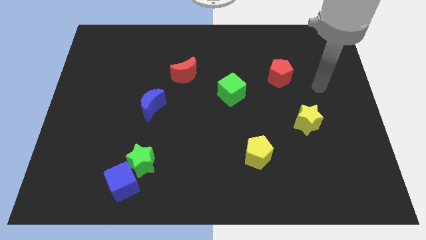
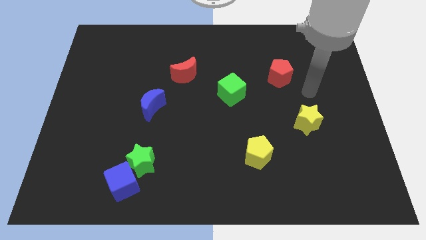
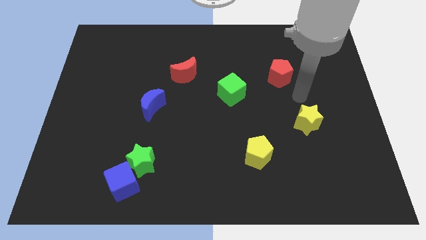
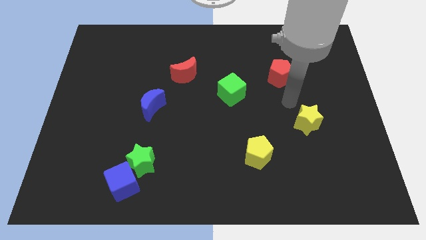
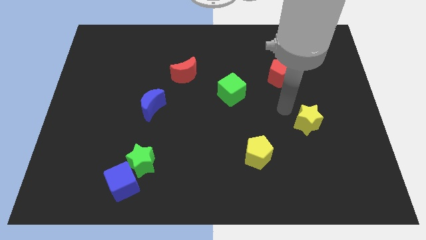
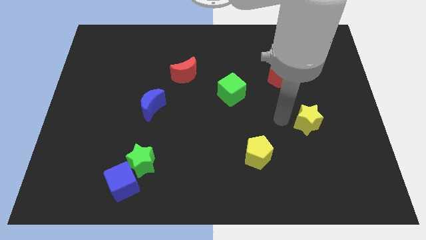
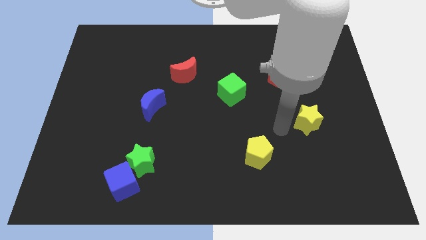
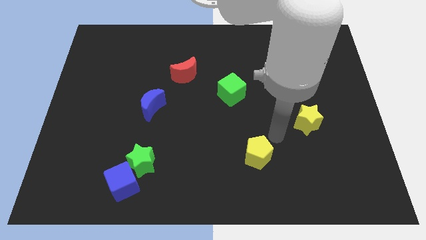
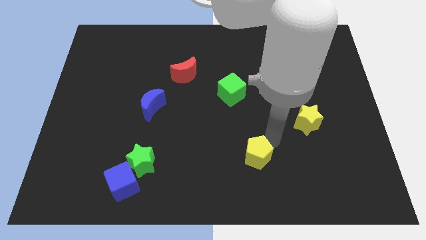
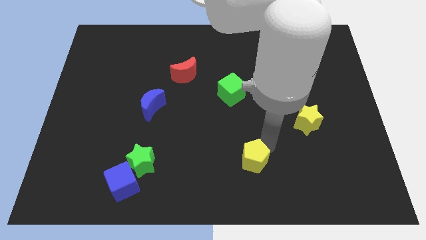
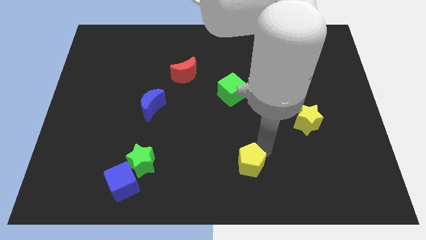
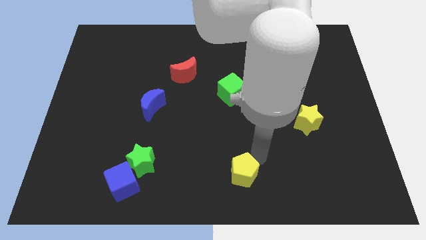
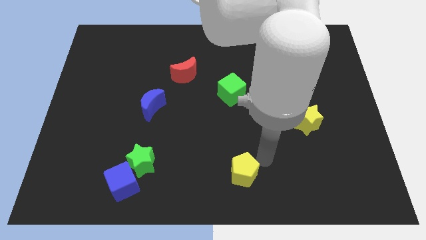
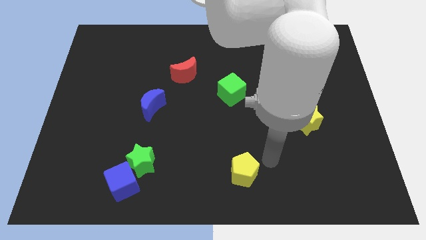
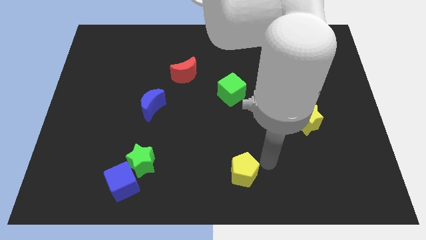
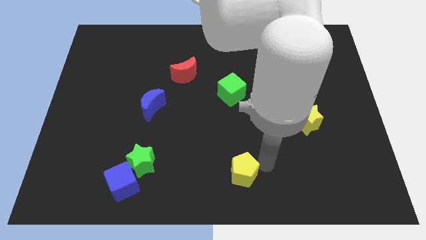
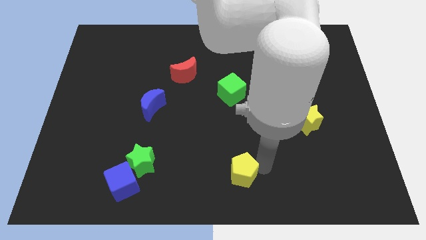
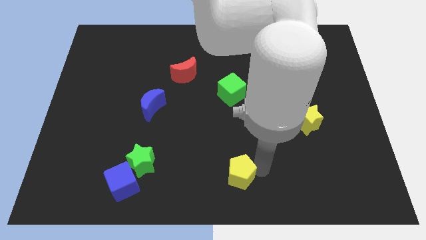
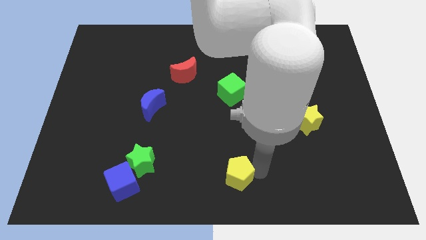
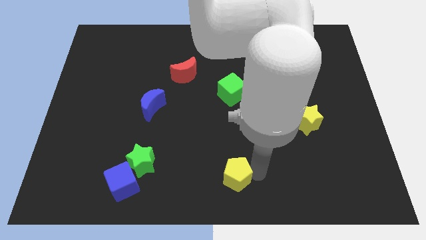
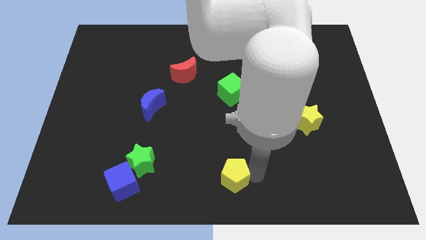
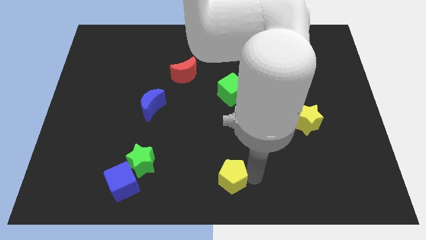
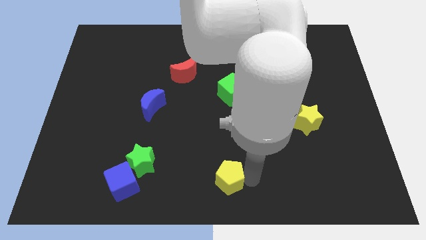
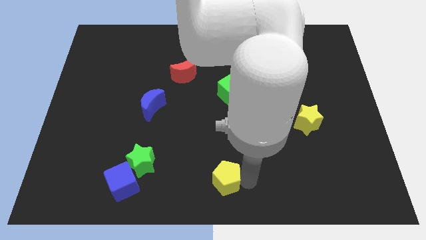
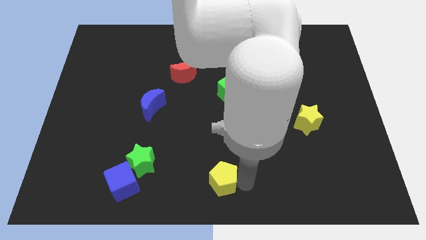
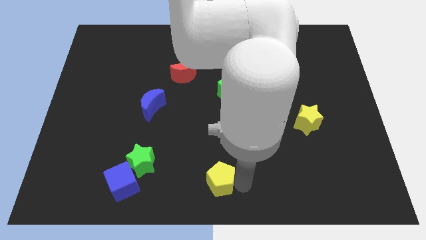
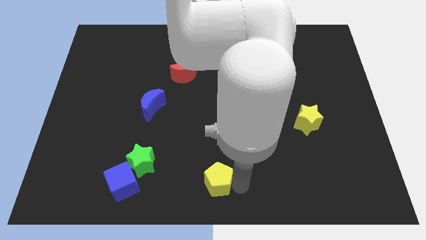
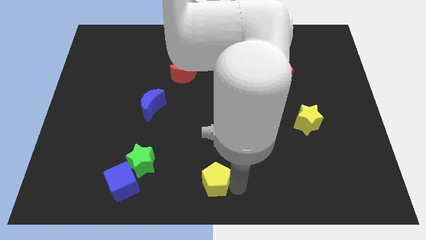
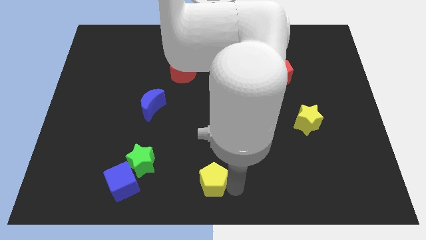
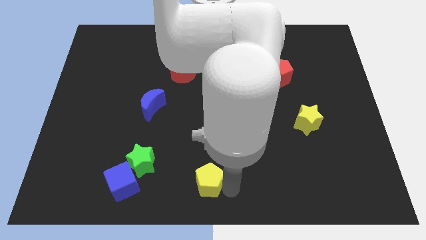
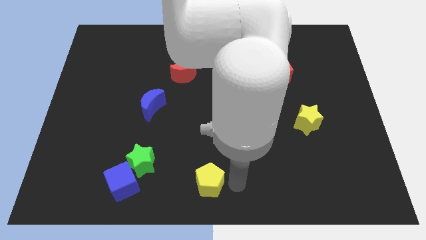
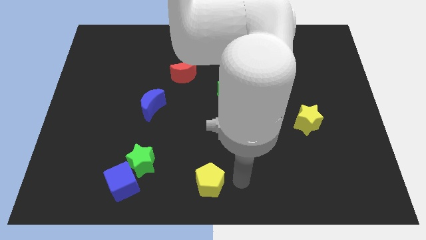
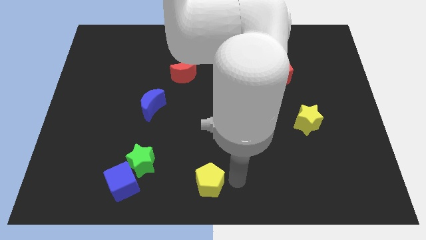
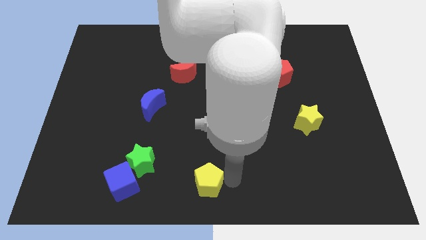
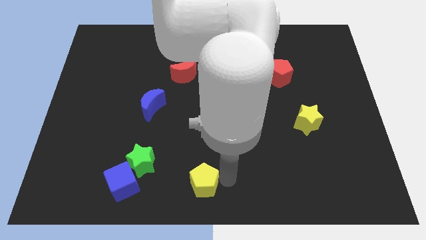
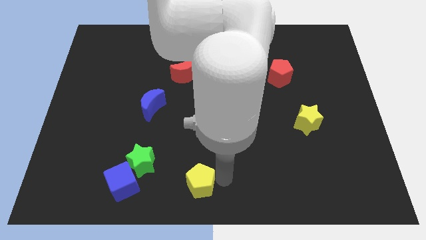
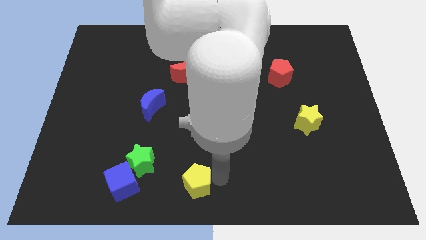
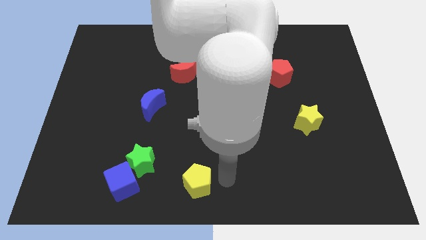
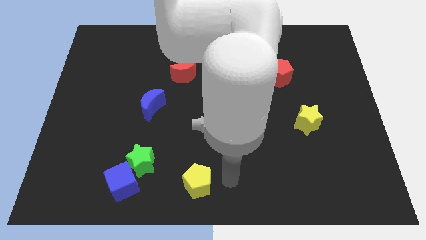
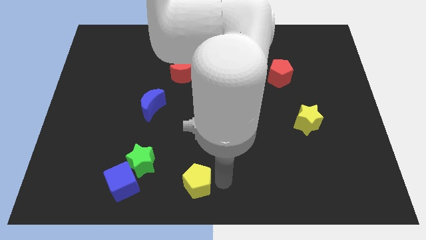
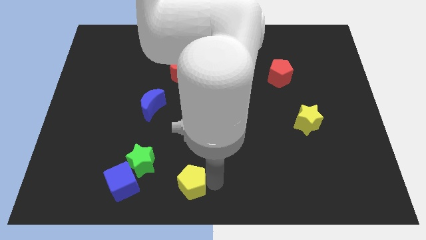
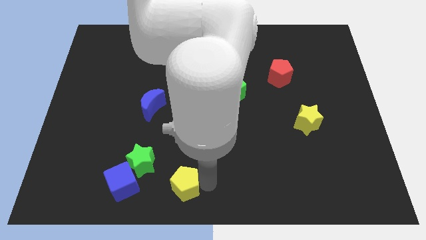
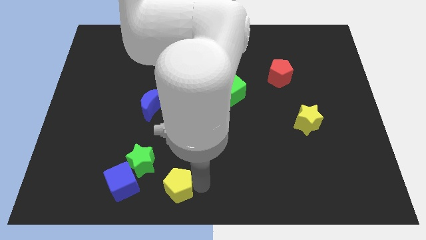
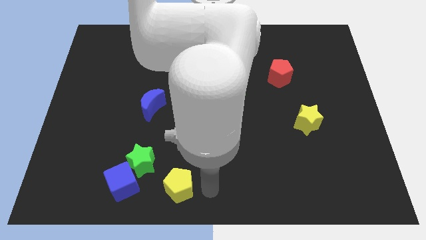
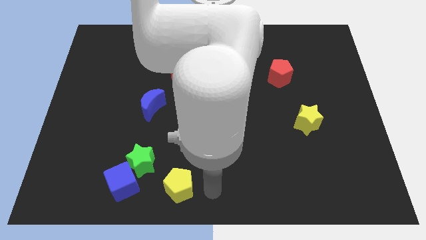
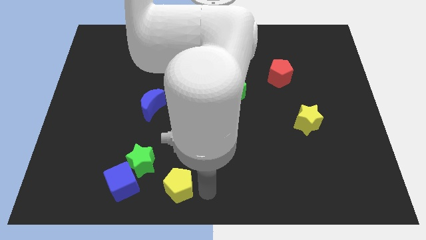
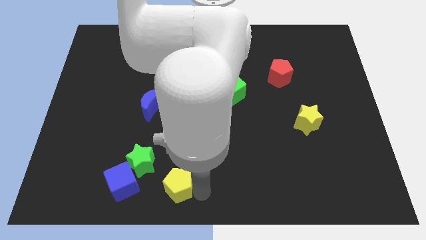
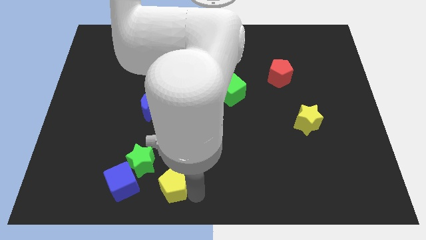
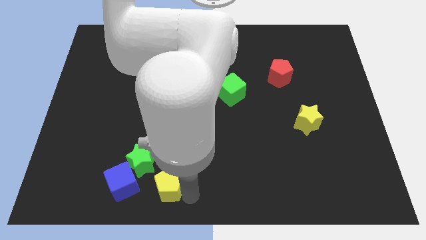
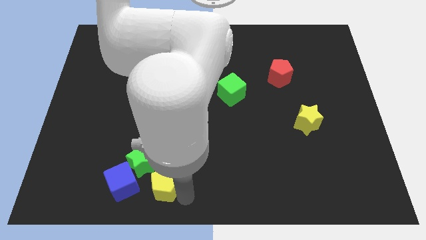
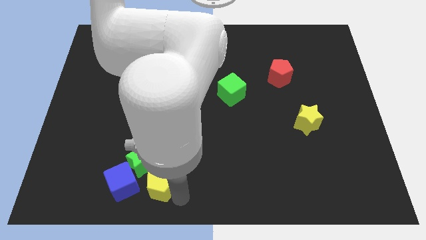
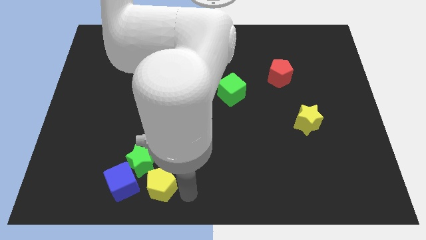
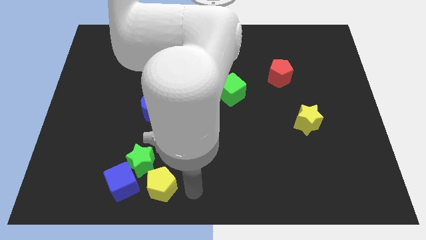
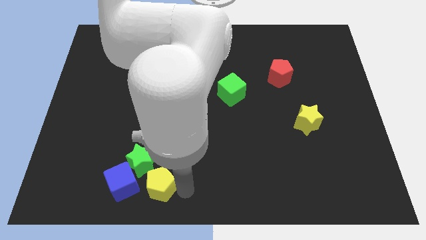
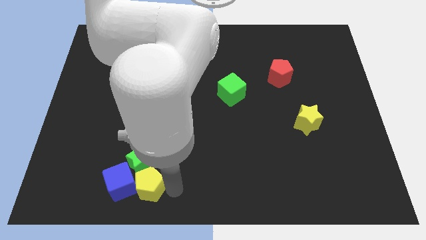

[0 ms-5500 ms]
move the yellow pentagon close to the blue cube

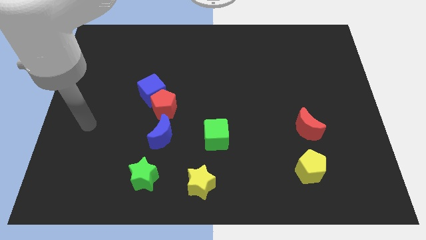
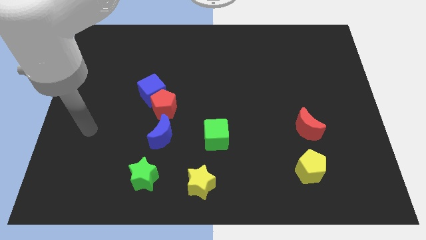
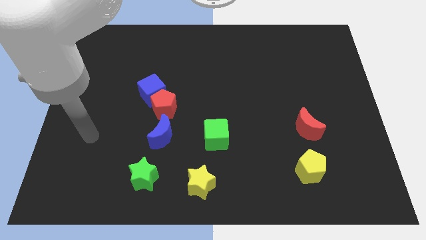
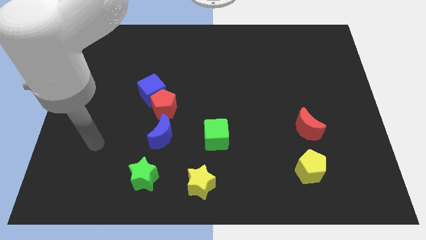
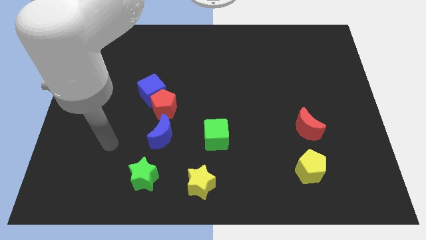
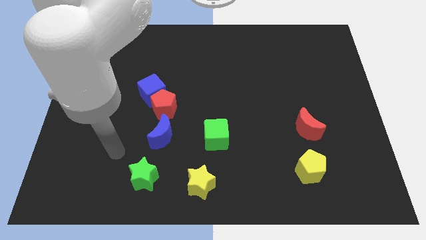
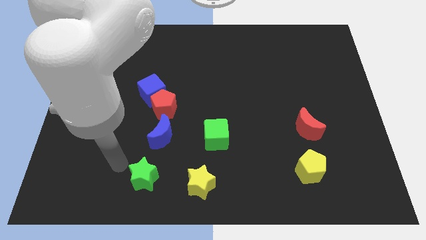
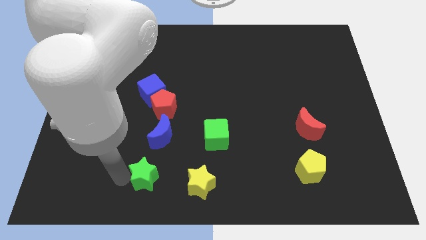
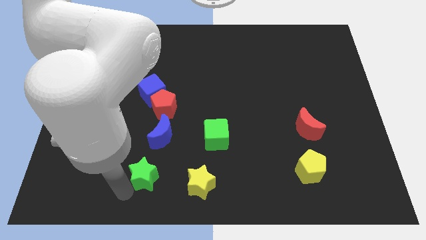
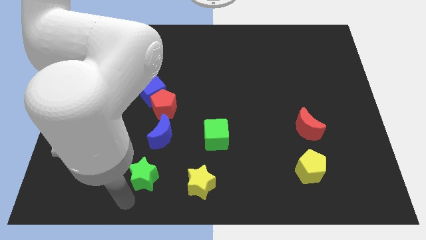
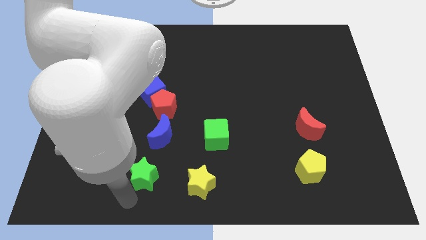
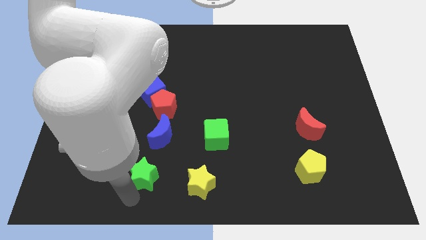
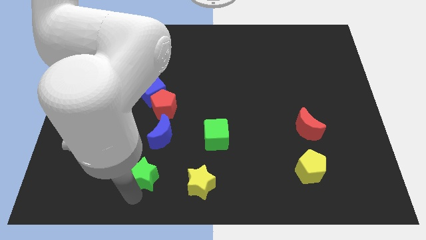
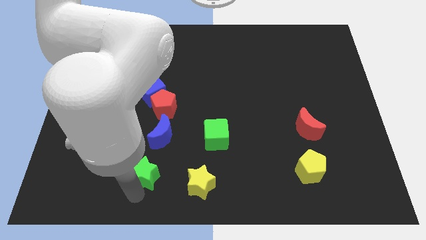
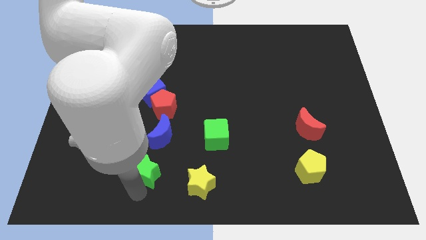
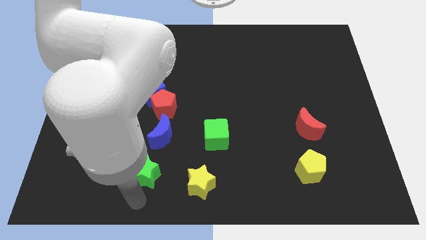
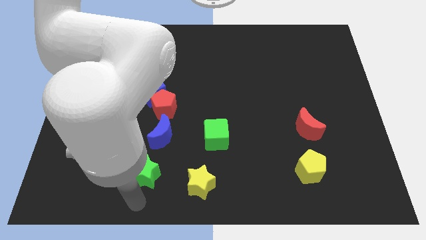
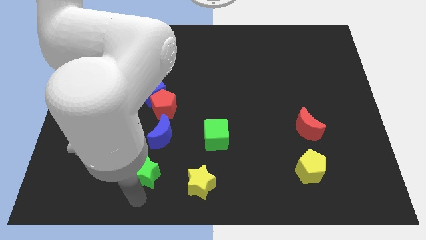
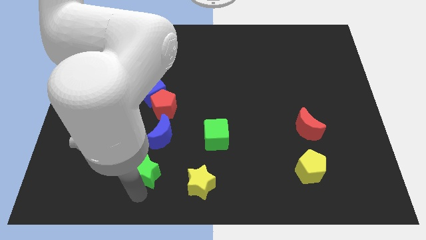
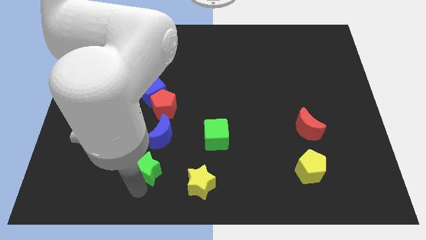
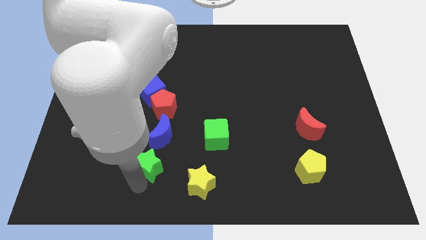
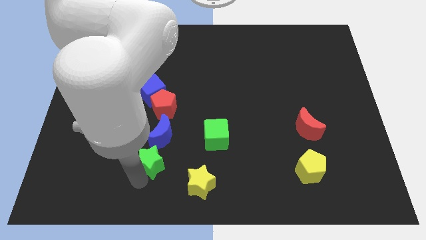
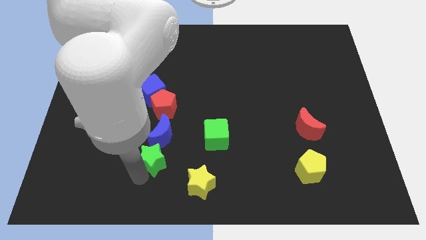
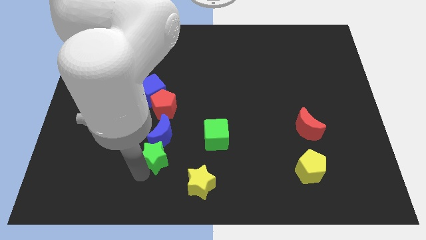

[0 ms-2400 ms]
push the green star close to the blue moon
